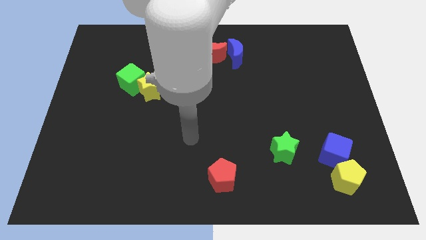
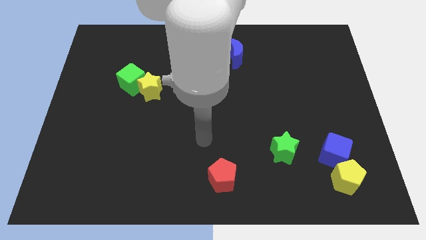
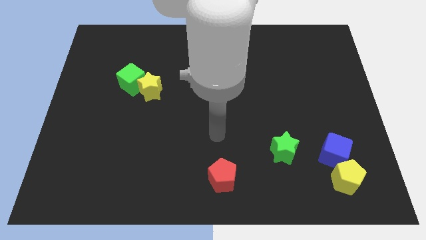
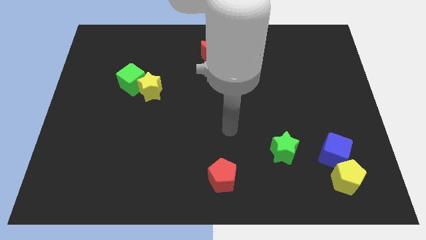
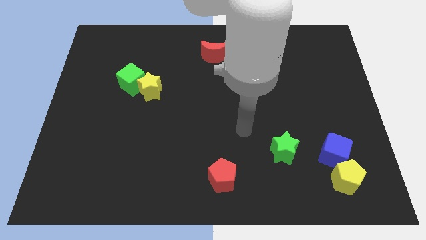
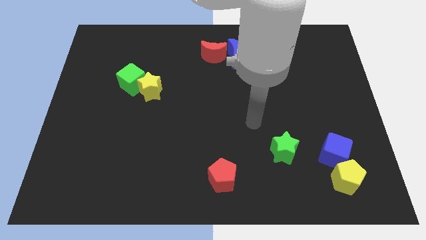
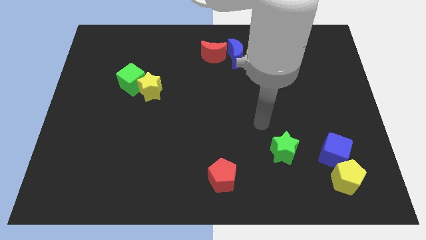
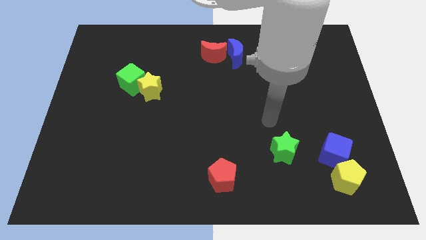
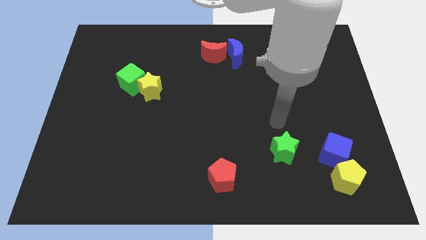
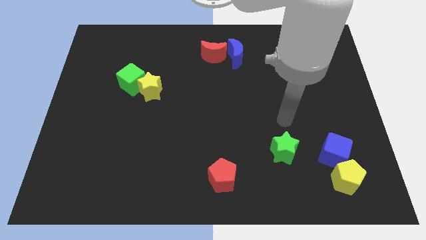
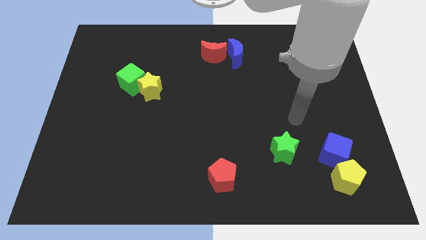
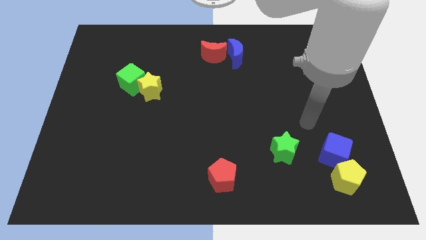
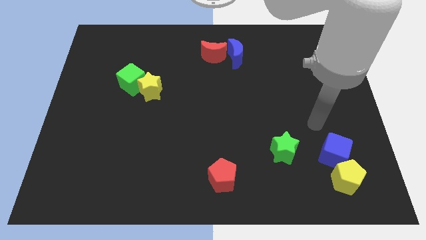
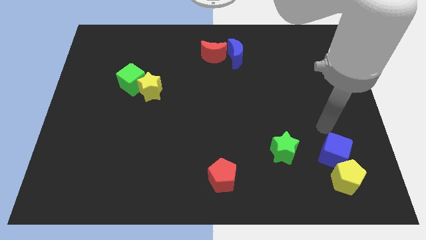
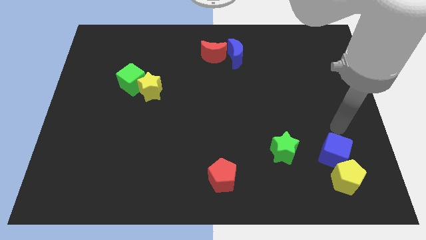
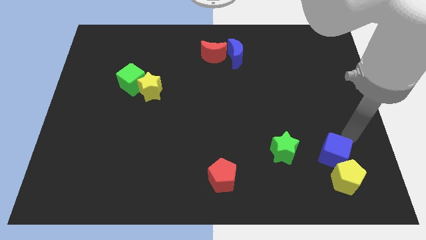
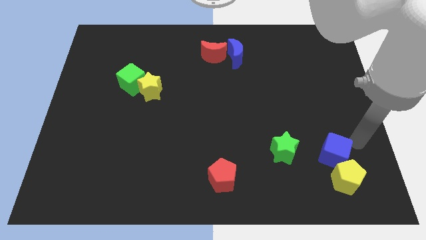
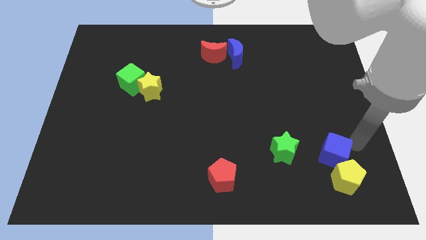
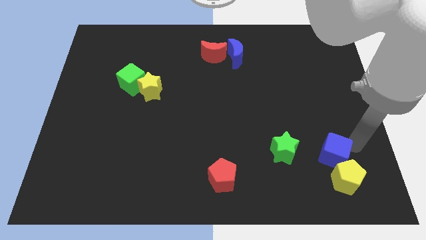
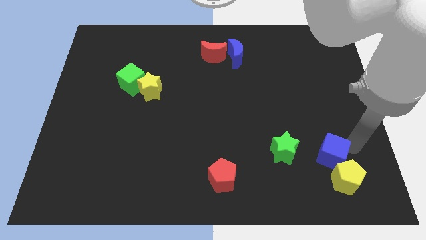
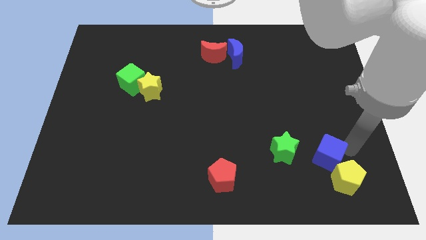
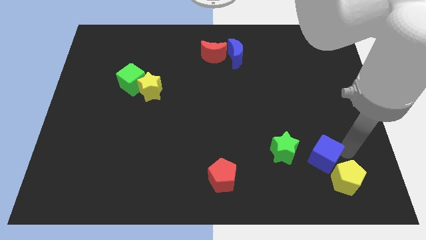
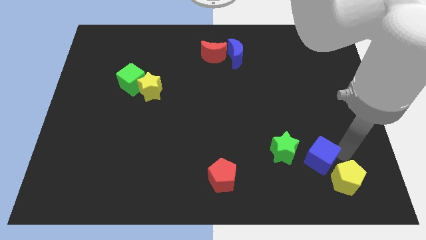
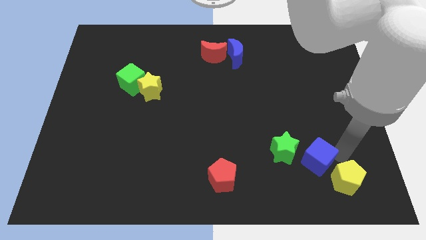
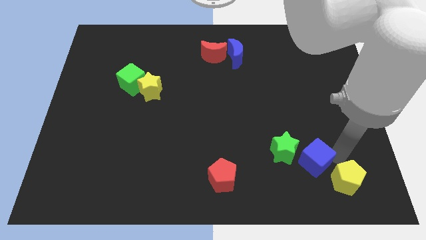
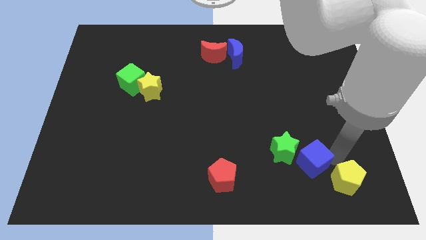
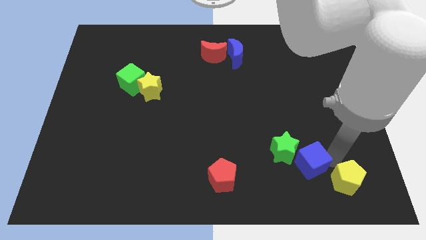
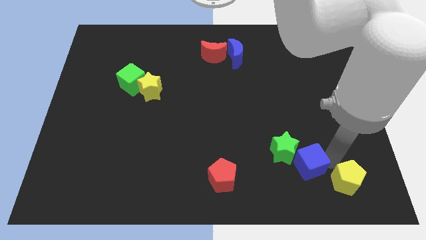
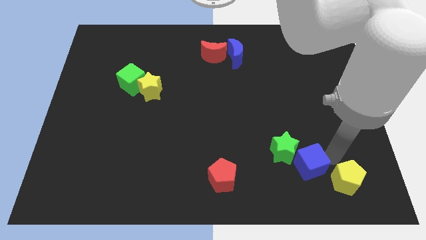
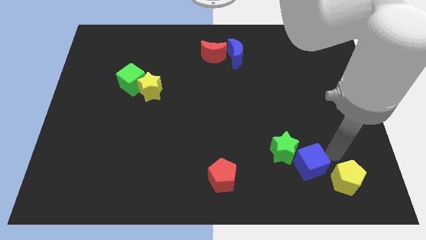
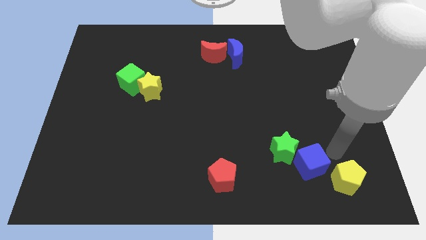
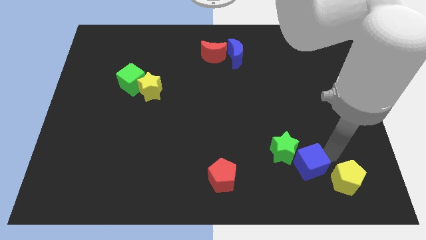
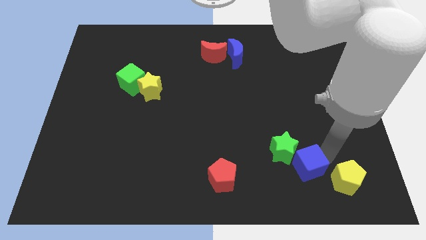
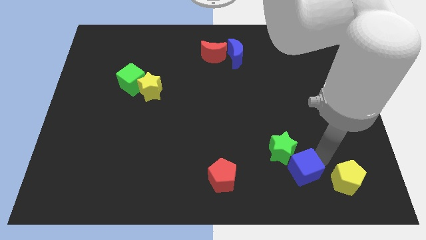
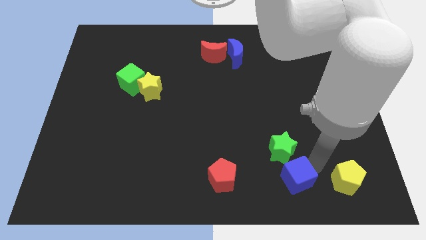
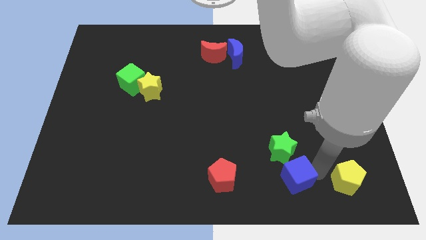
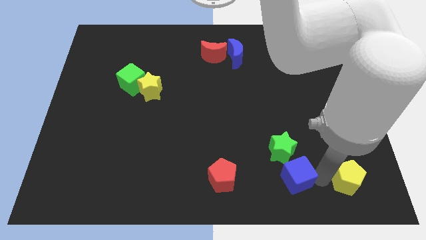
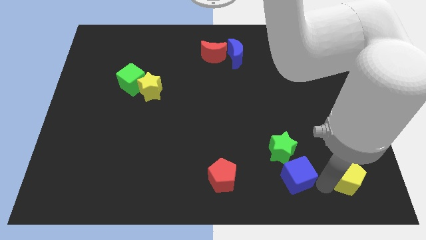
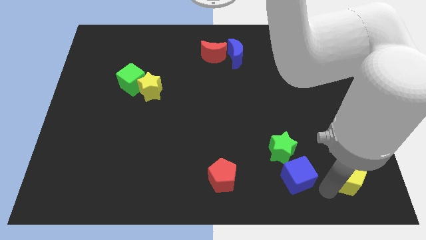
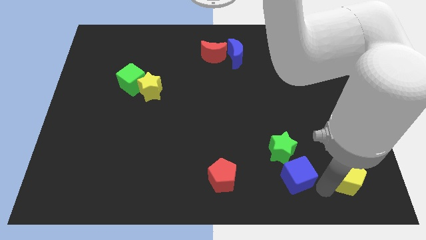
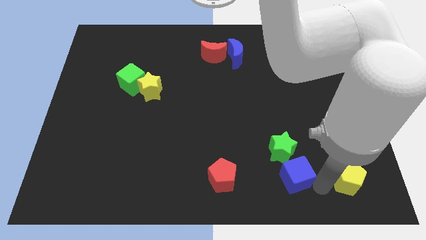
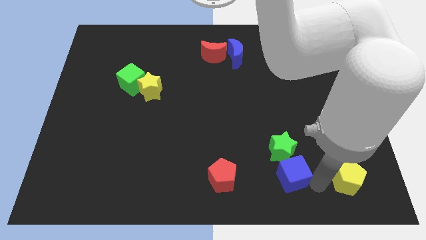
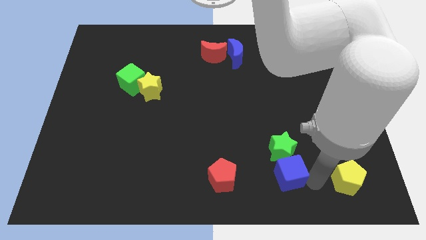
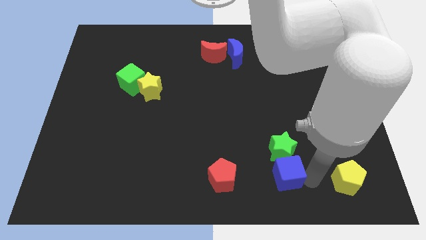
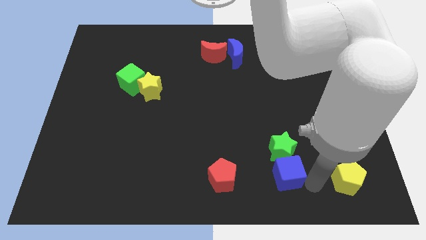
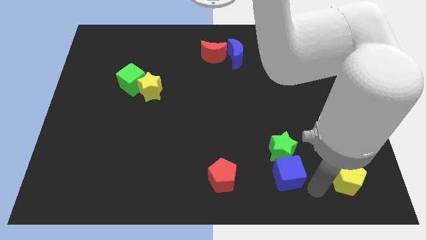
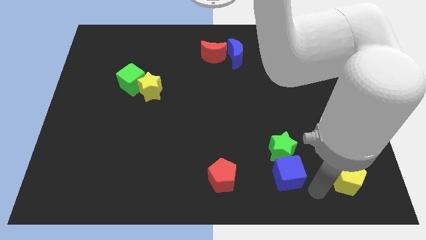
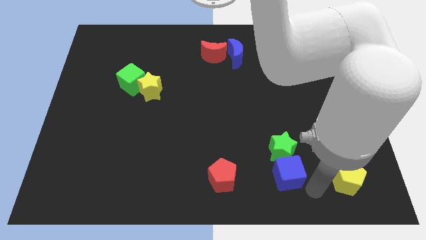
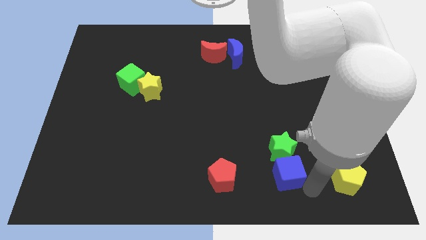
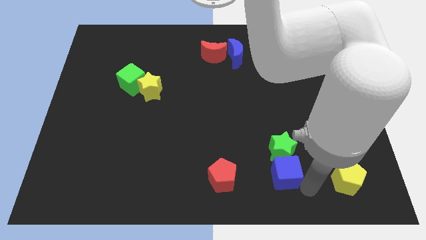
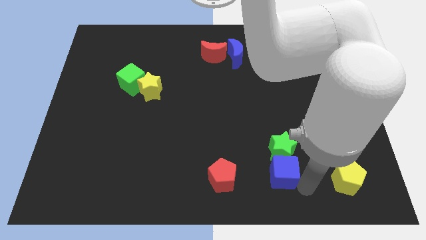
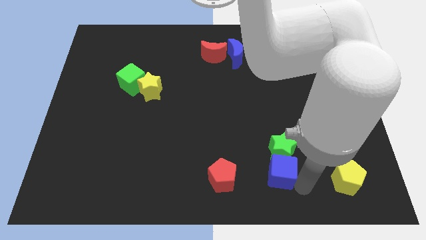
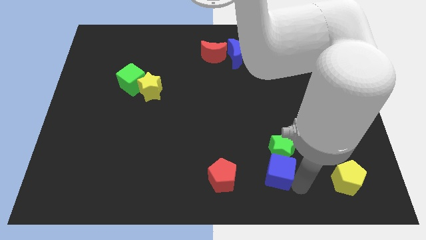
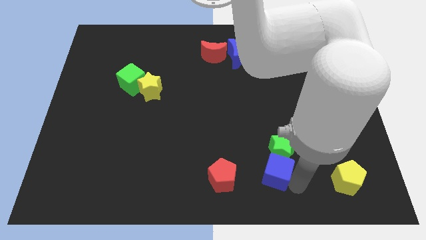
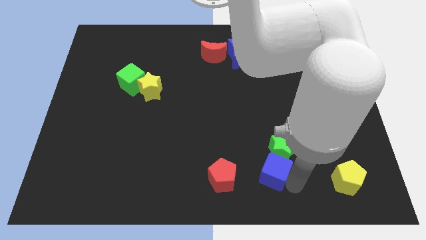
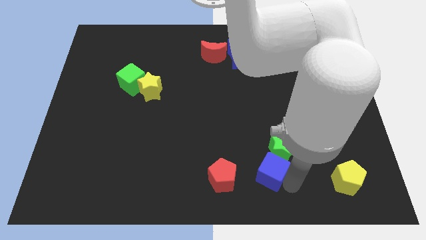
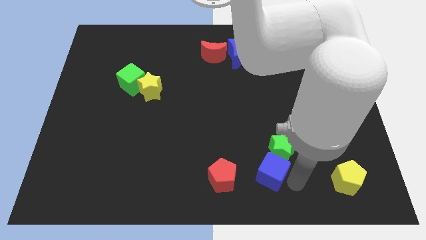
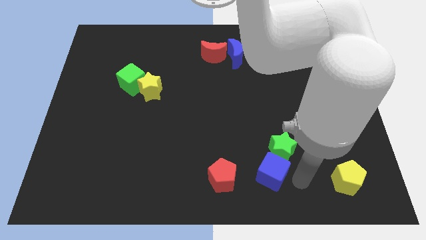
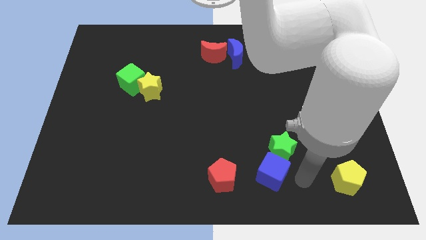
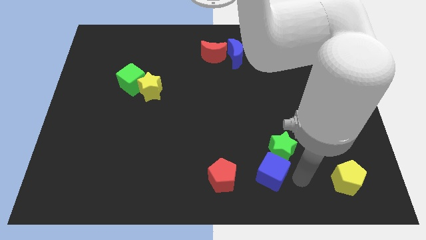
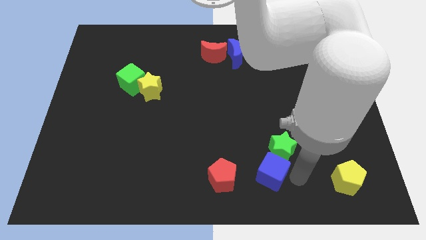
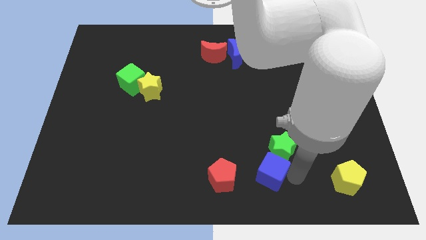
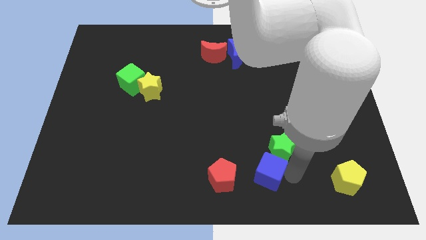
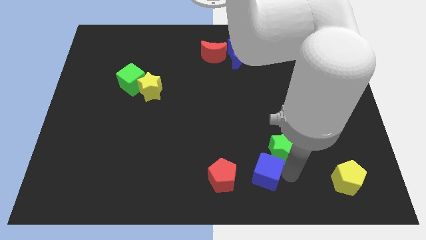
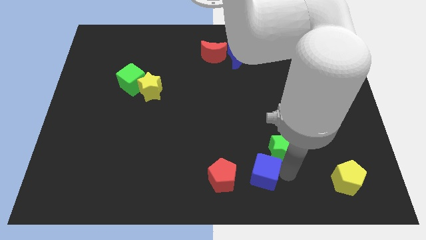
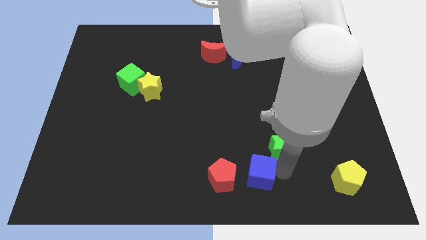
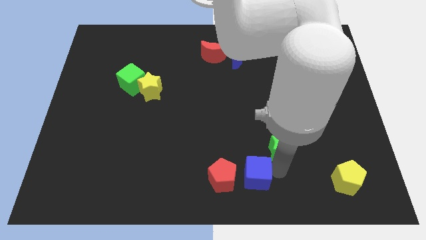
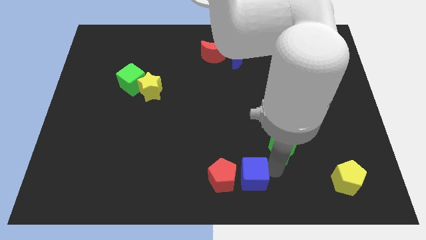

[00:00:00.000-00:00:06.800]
move the blue cube close to the red pentagon

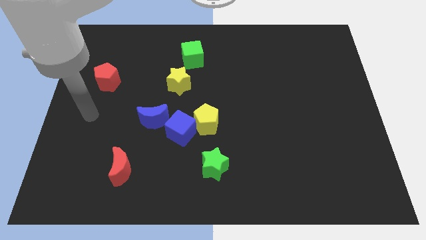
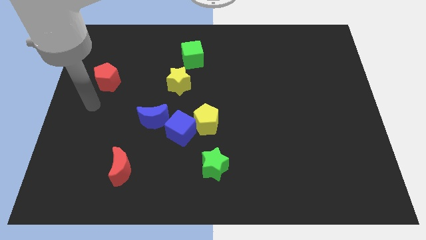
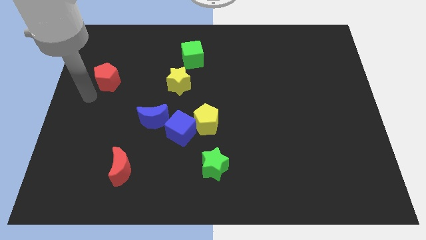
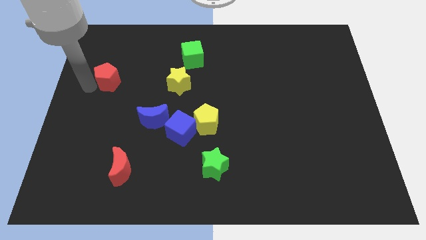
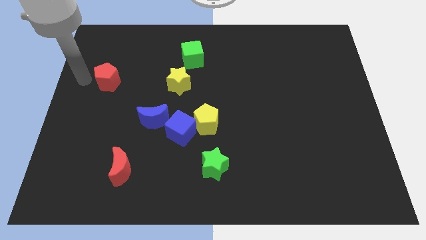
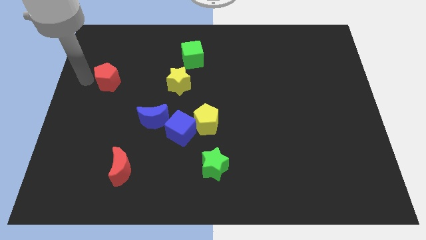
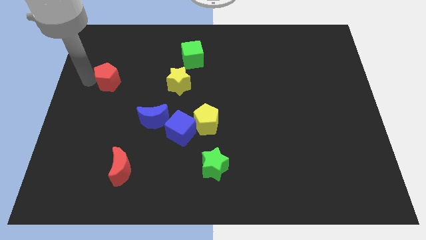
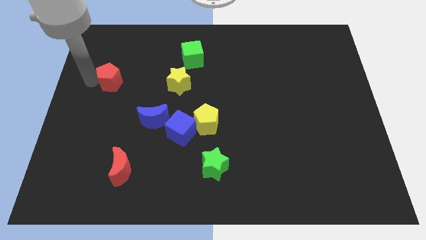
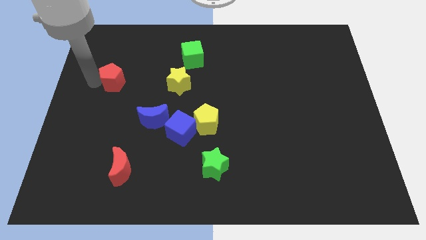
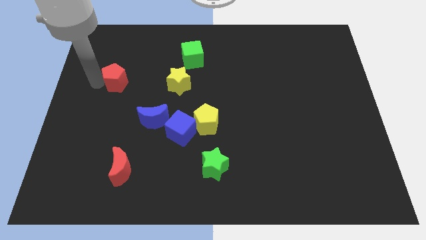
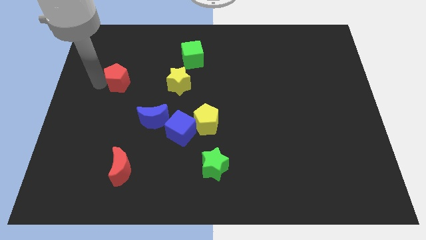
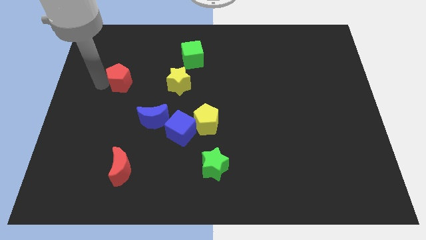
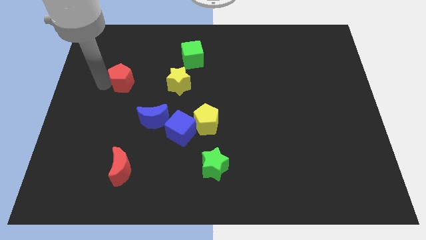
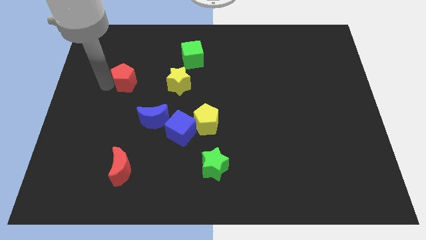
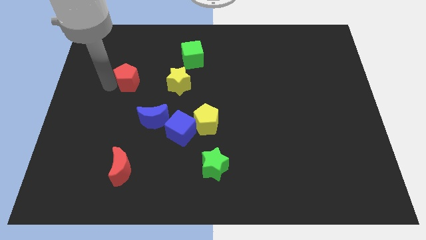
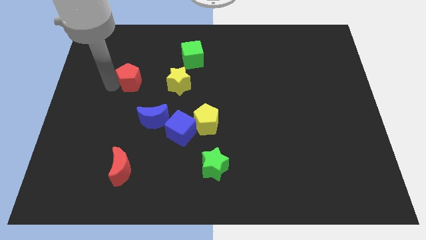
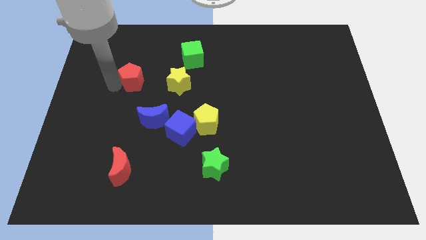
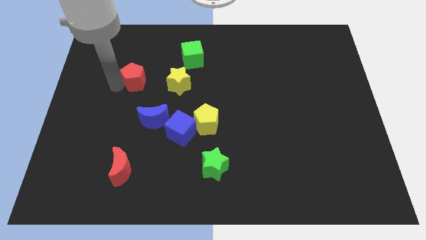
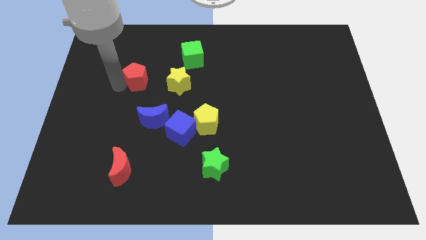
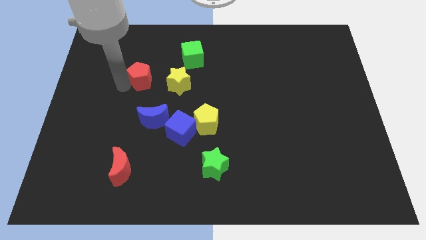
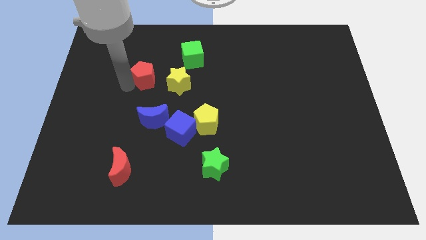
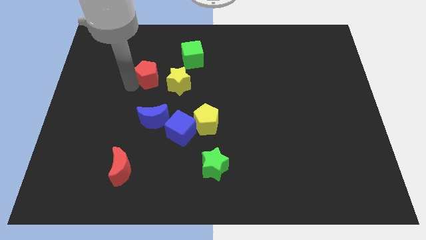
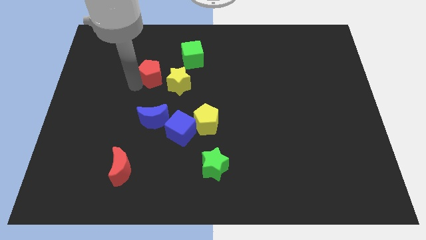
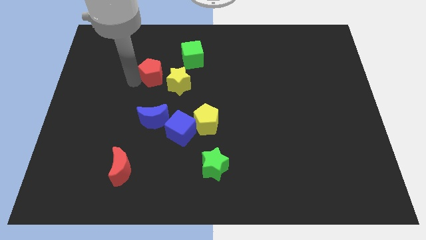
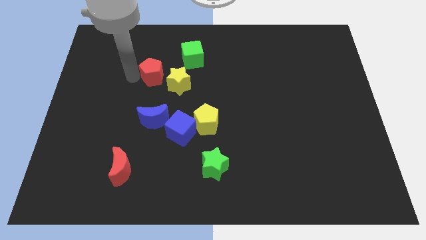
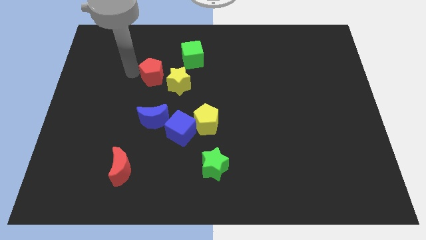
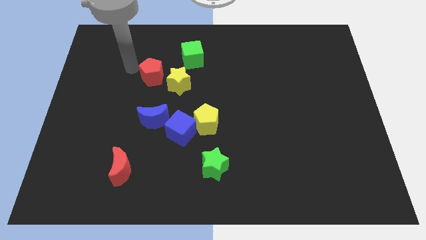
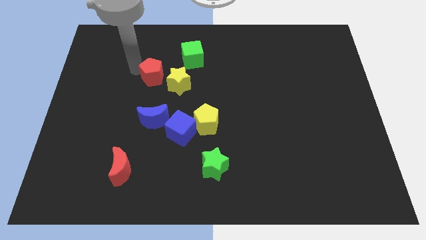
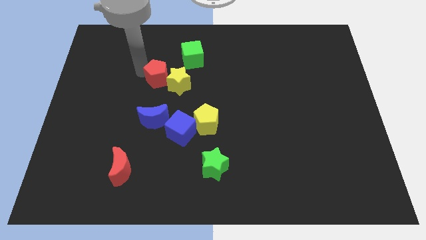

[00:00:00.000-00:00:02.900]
slide the red pentagon to the yellow star
